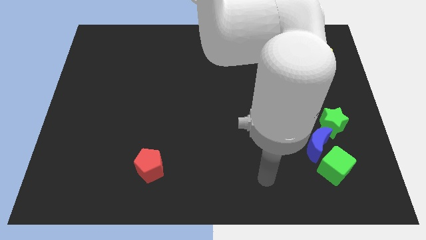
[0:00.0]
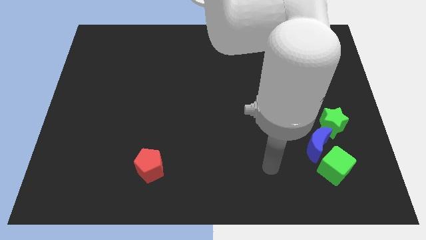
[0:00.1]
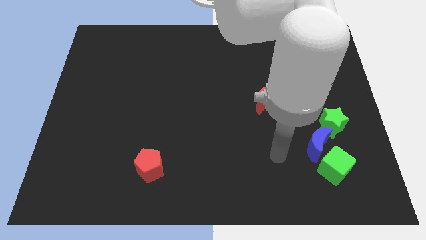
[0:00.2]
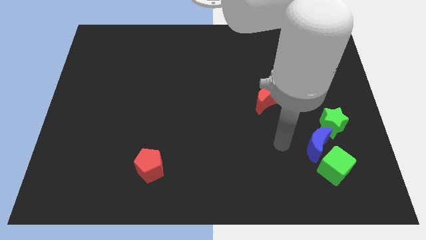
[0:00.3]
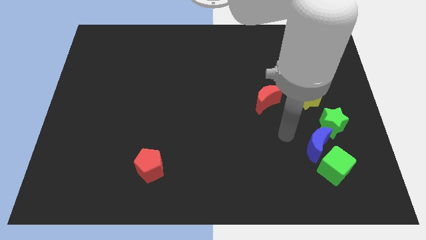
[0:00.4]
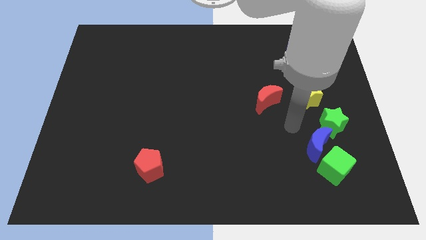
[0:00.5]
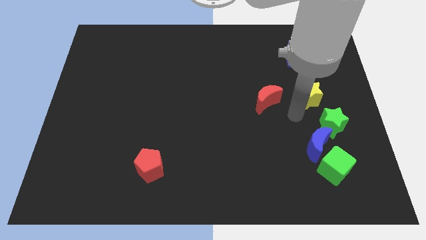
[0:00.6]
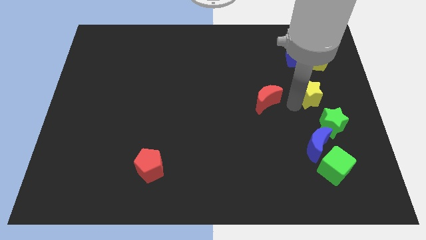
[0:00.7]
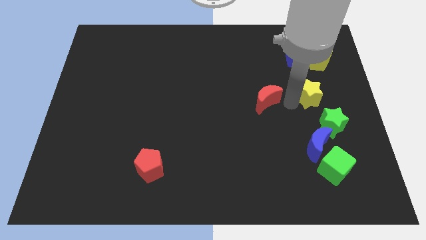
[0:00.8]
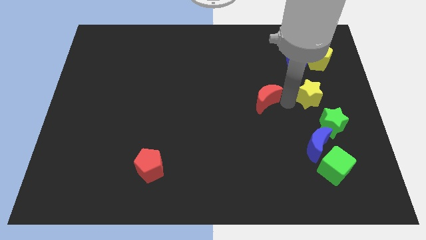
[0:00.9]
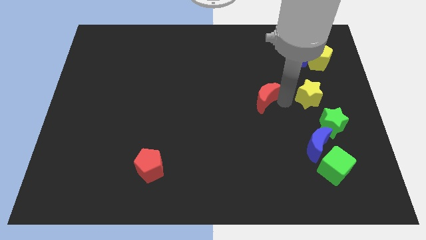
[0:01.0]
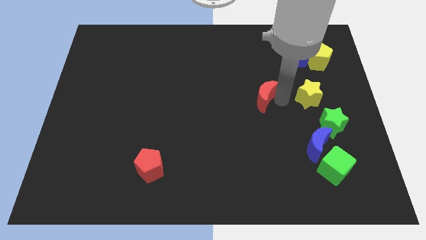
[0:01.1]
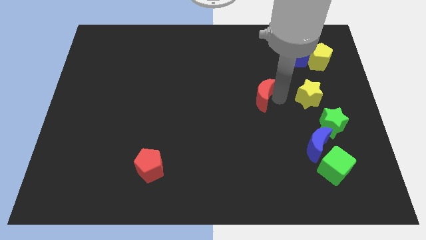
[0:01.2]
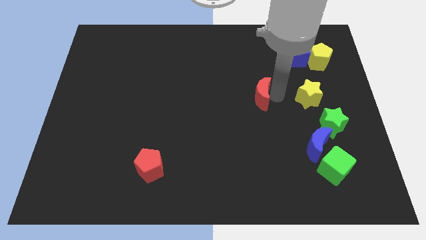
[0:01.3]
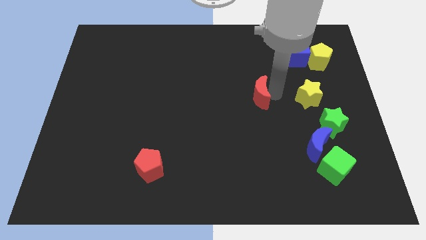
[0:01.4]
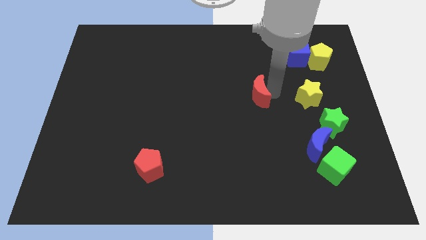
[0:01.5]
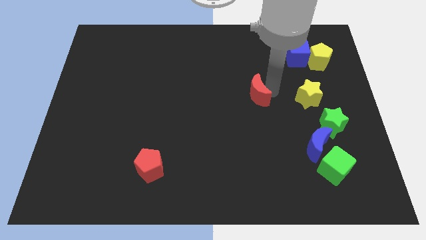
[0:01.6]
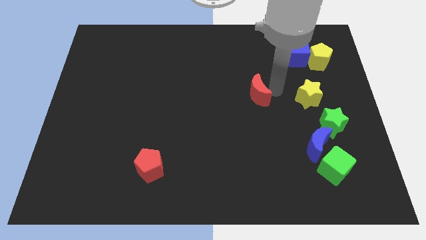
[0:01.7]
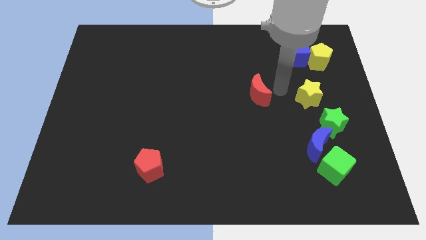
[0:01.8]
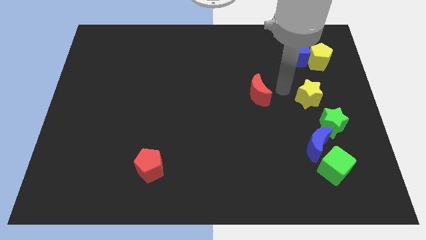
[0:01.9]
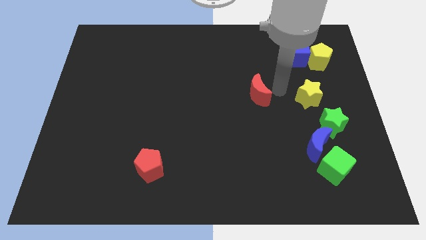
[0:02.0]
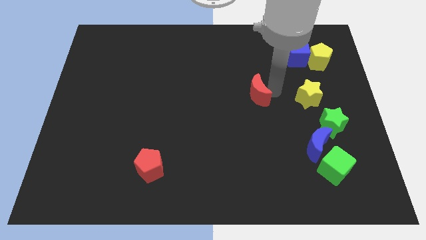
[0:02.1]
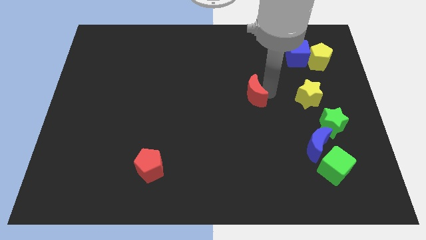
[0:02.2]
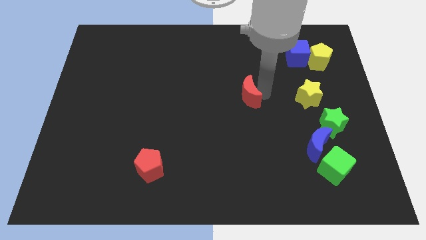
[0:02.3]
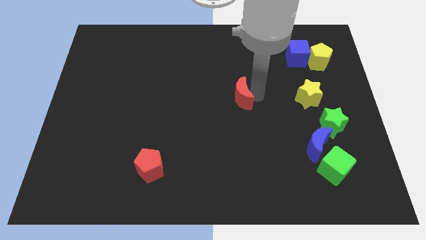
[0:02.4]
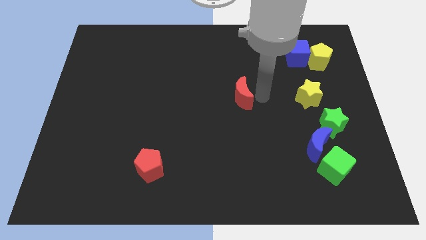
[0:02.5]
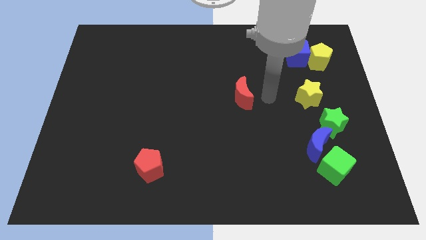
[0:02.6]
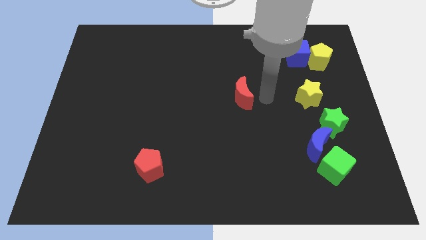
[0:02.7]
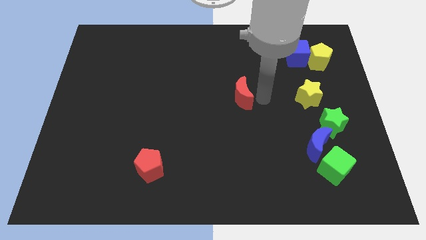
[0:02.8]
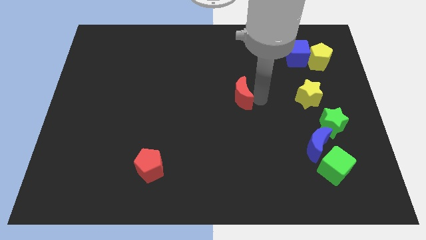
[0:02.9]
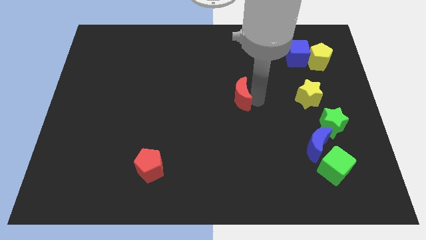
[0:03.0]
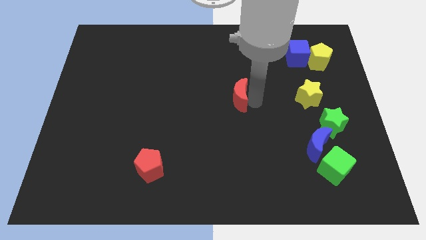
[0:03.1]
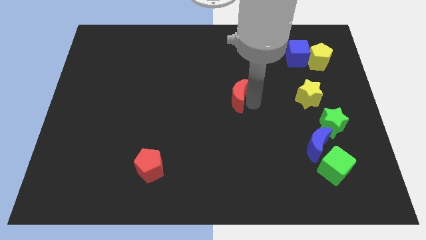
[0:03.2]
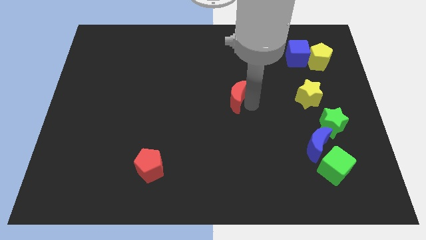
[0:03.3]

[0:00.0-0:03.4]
slide the red moon to the left slightly

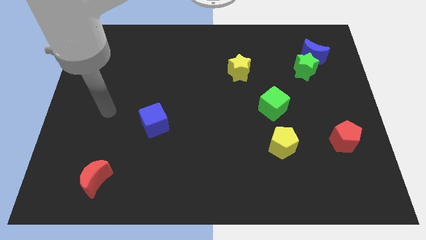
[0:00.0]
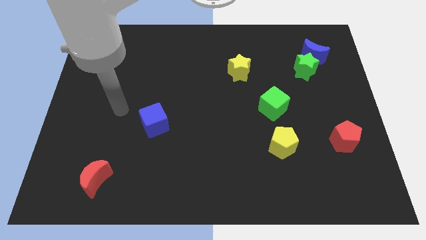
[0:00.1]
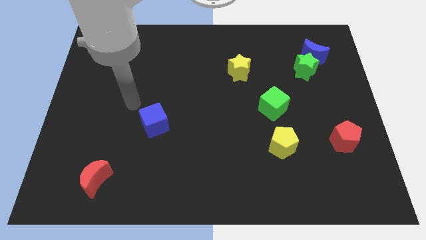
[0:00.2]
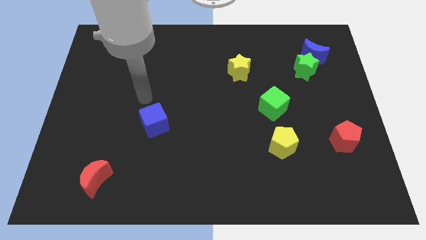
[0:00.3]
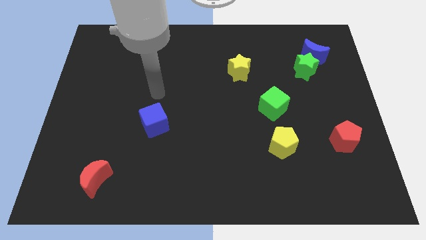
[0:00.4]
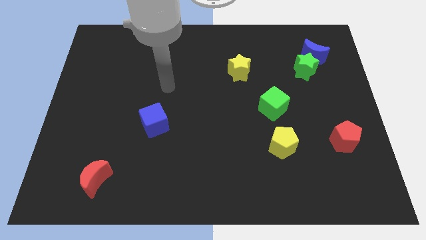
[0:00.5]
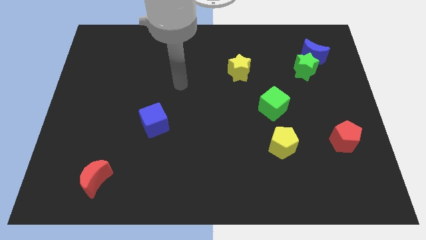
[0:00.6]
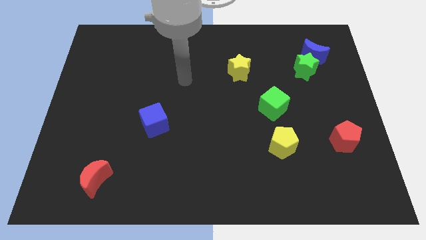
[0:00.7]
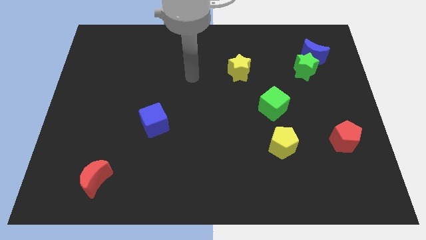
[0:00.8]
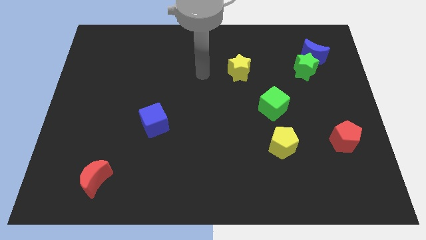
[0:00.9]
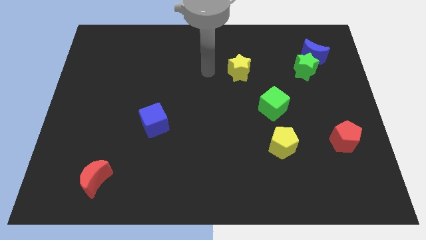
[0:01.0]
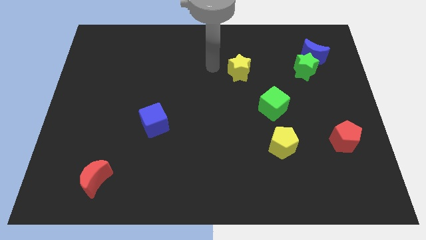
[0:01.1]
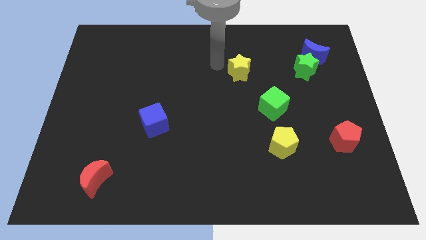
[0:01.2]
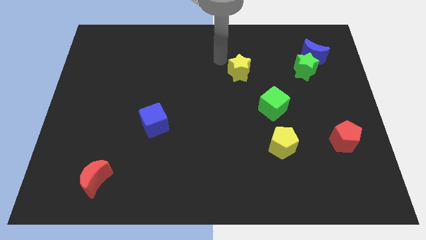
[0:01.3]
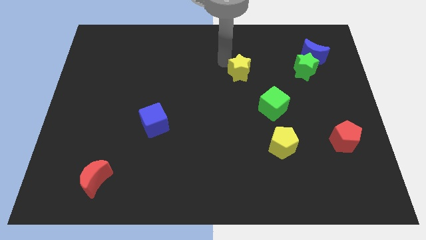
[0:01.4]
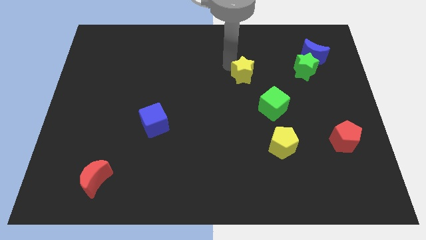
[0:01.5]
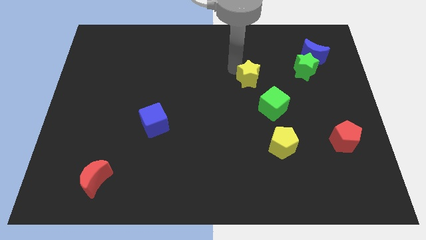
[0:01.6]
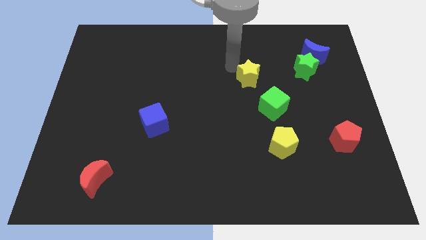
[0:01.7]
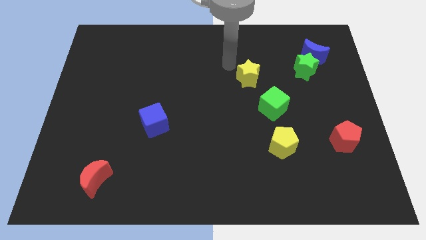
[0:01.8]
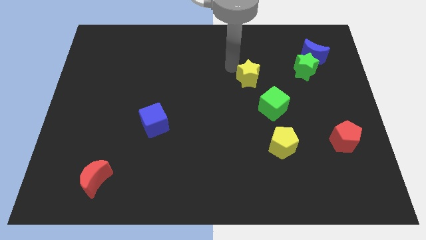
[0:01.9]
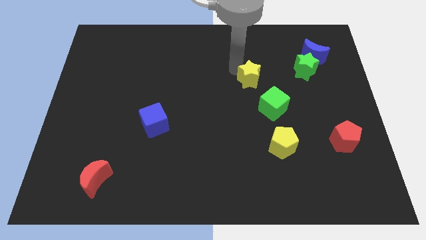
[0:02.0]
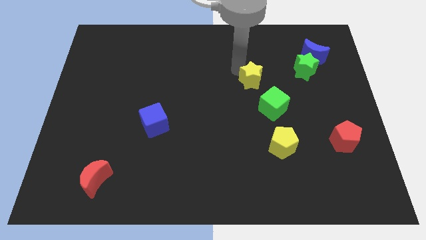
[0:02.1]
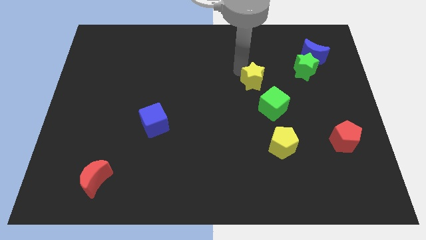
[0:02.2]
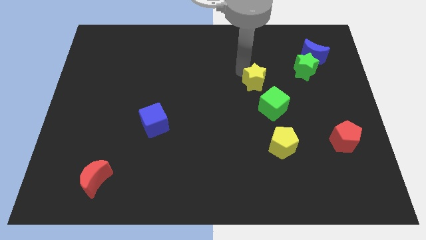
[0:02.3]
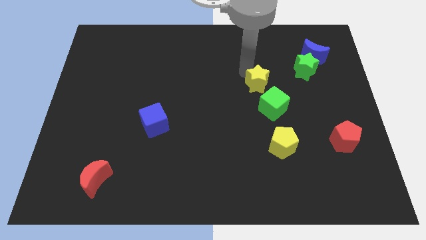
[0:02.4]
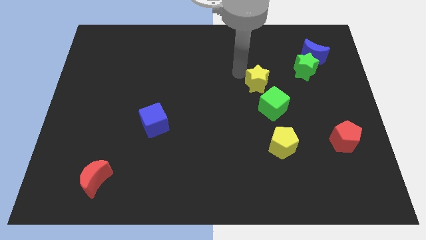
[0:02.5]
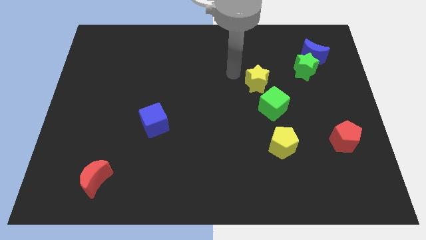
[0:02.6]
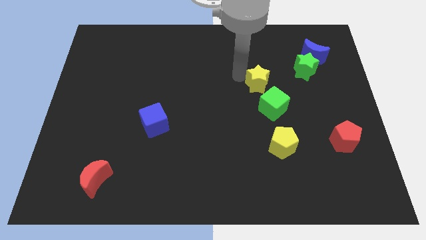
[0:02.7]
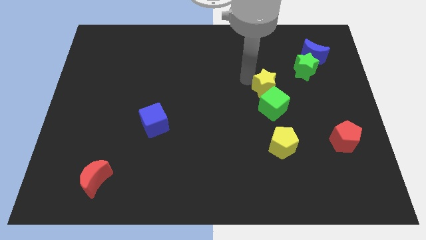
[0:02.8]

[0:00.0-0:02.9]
slide the yellow star downwards and right a little

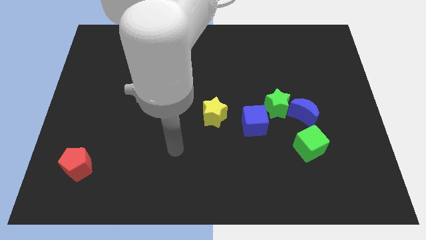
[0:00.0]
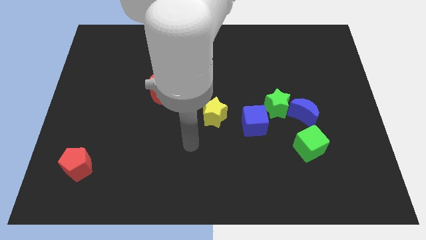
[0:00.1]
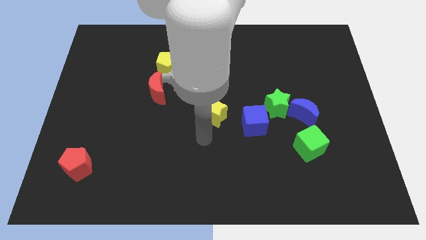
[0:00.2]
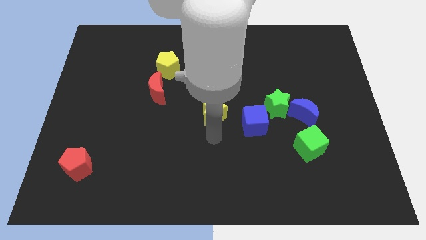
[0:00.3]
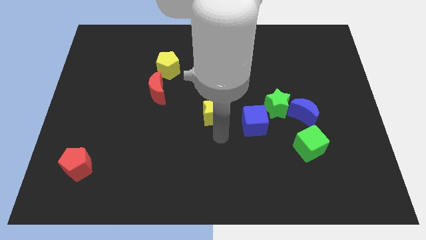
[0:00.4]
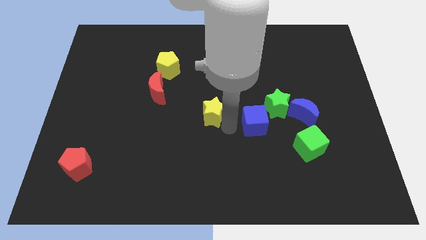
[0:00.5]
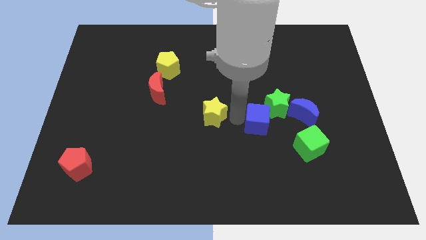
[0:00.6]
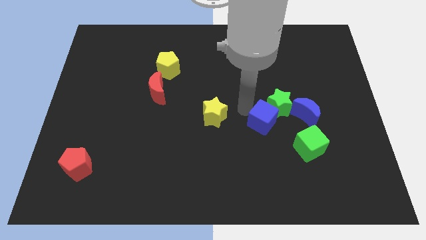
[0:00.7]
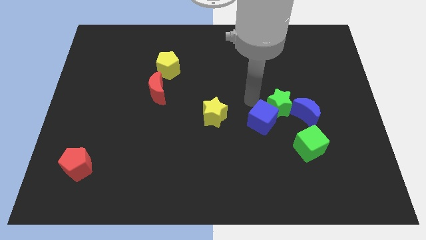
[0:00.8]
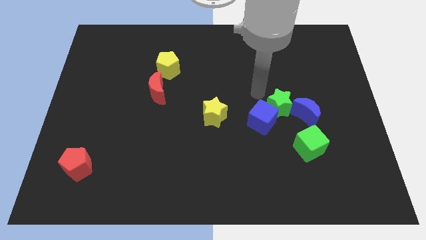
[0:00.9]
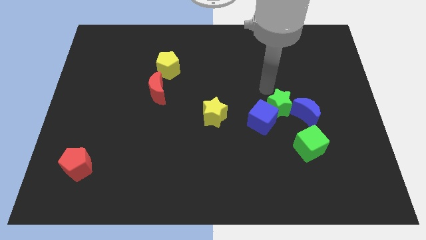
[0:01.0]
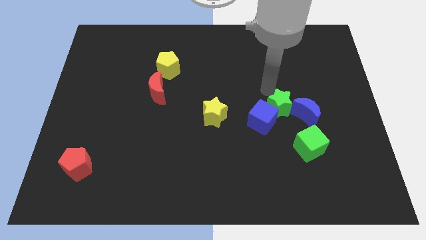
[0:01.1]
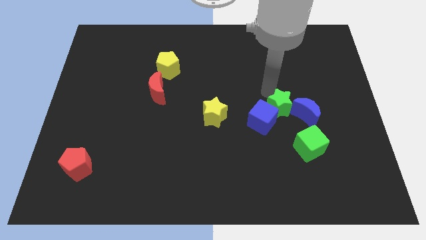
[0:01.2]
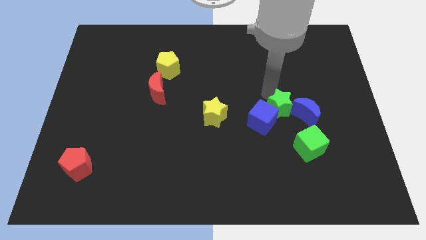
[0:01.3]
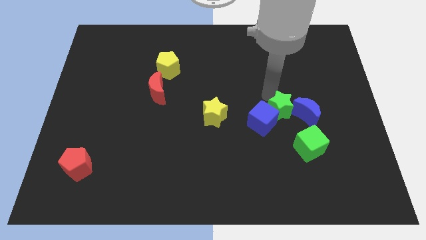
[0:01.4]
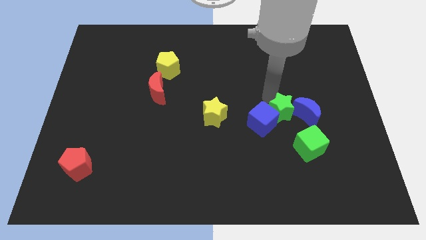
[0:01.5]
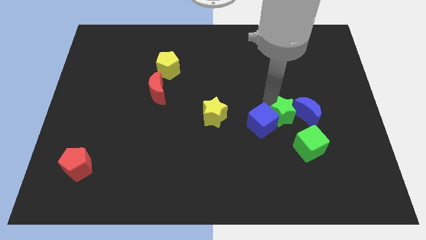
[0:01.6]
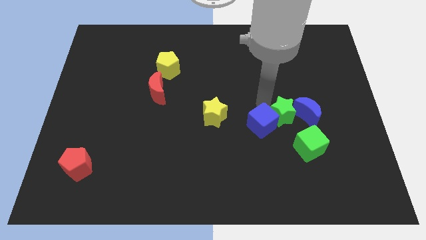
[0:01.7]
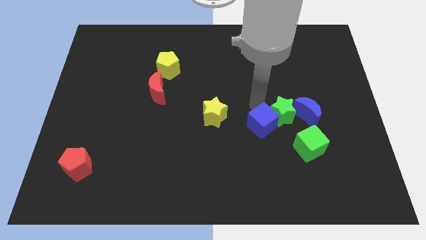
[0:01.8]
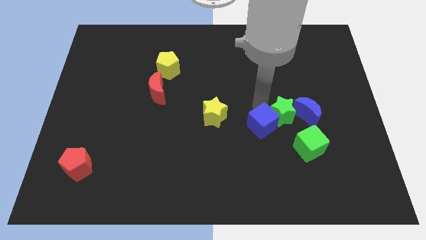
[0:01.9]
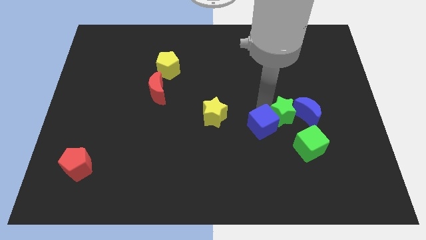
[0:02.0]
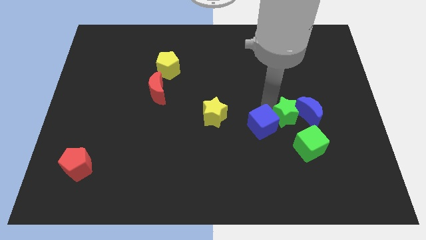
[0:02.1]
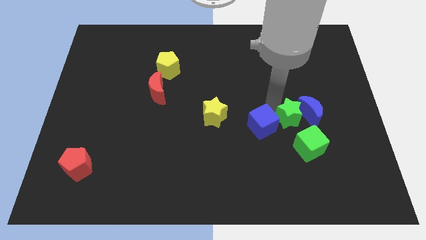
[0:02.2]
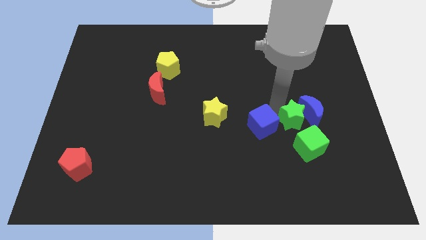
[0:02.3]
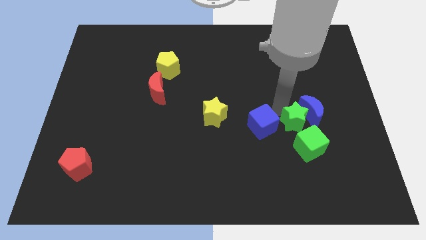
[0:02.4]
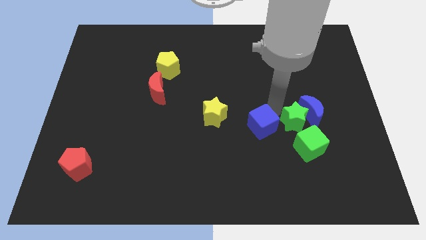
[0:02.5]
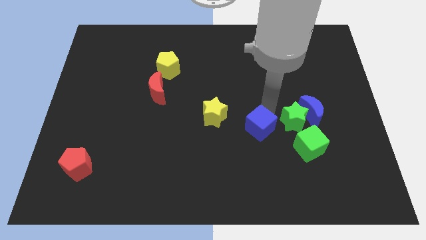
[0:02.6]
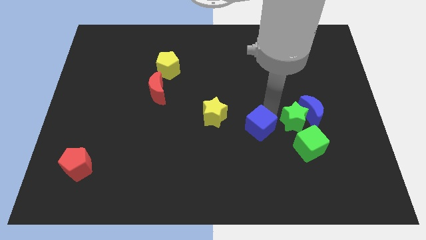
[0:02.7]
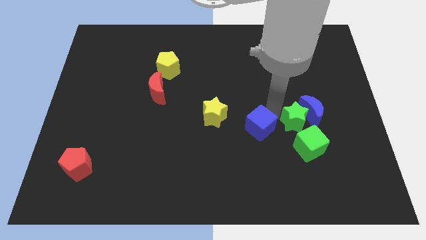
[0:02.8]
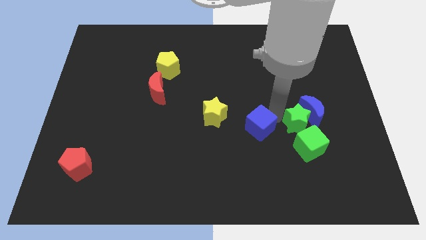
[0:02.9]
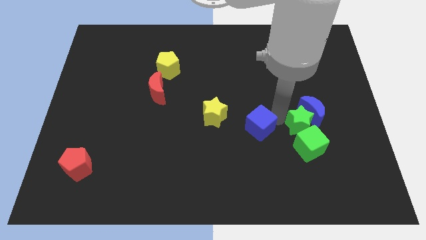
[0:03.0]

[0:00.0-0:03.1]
slide the green star down and right a bit
